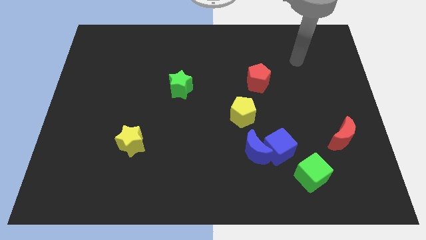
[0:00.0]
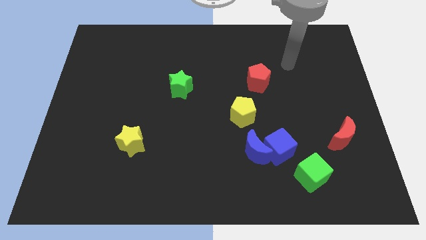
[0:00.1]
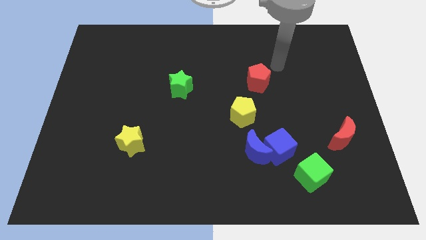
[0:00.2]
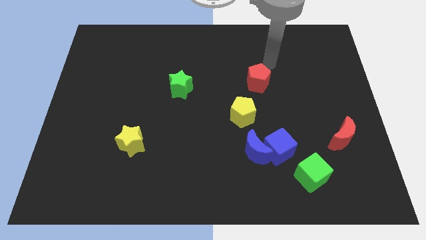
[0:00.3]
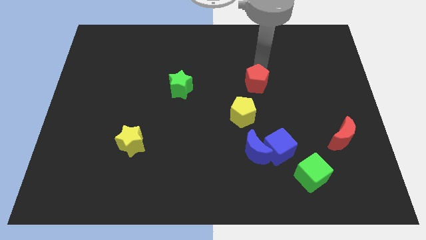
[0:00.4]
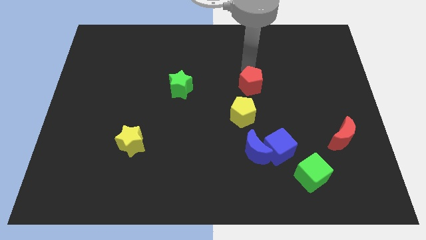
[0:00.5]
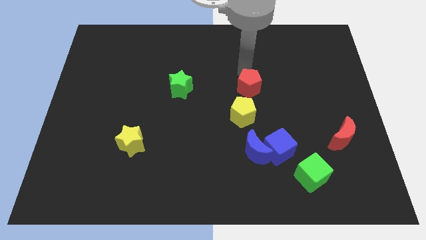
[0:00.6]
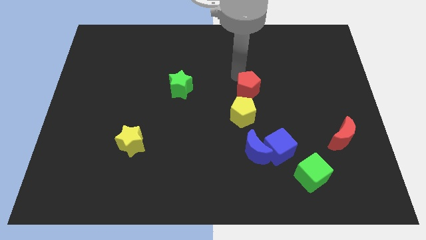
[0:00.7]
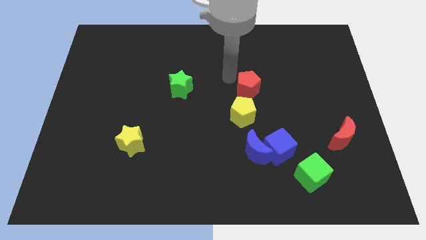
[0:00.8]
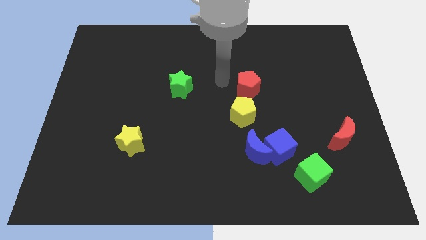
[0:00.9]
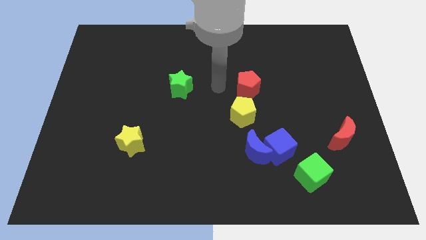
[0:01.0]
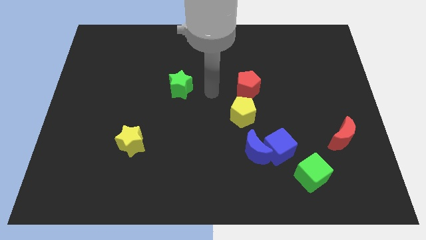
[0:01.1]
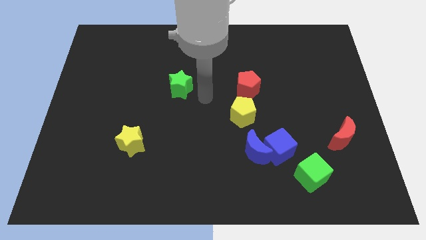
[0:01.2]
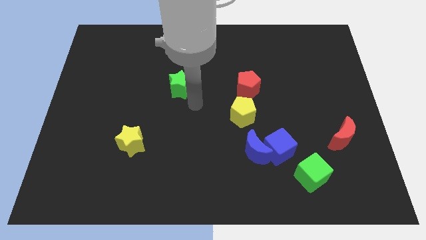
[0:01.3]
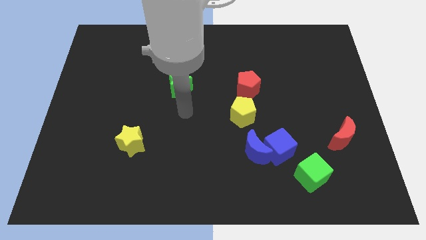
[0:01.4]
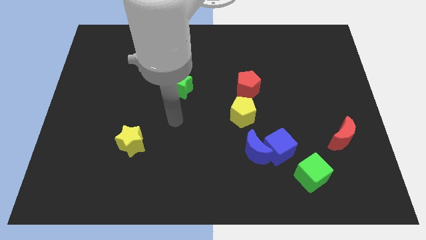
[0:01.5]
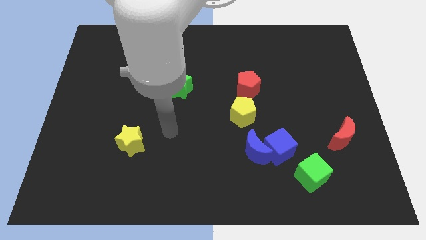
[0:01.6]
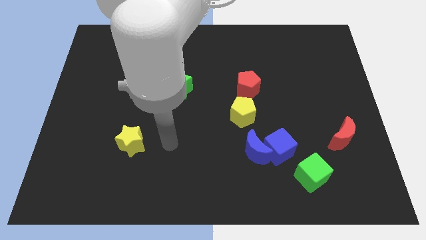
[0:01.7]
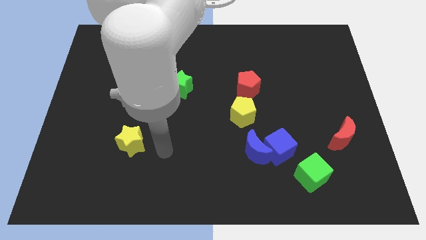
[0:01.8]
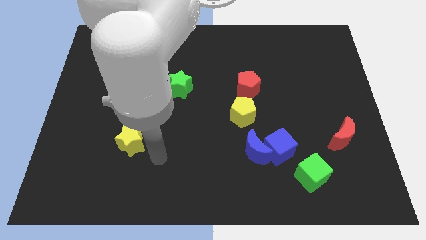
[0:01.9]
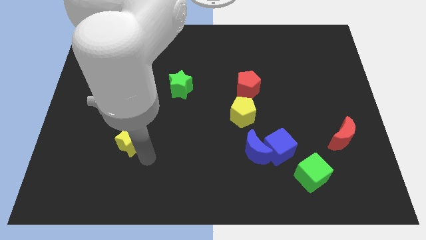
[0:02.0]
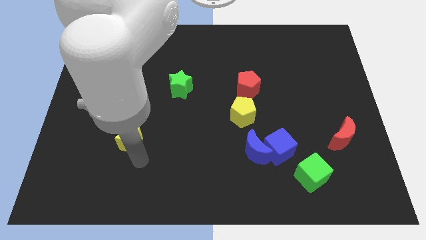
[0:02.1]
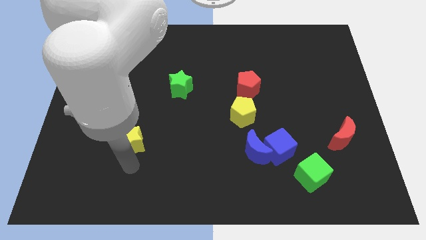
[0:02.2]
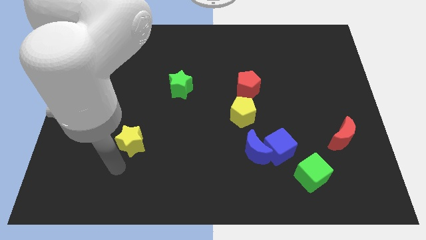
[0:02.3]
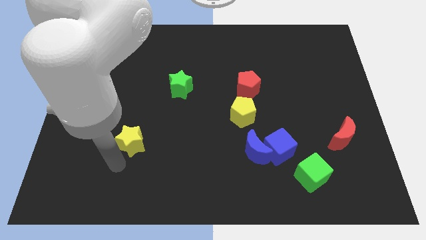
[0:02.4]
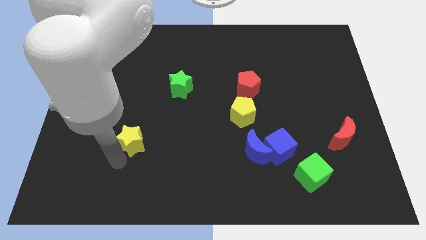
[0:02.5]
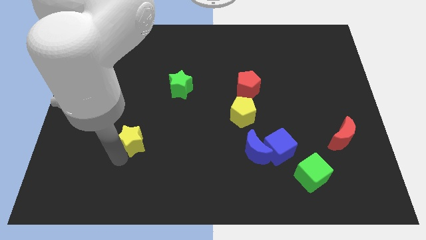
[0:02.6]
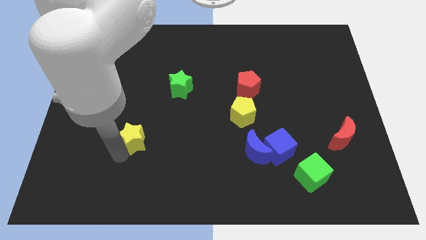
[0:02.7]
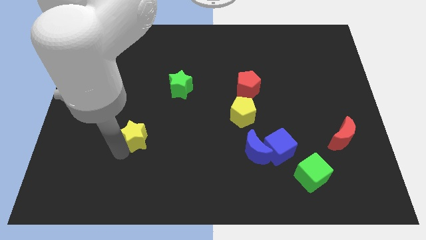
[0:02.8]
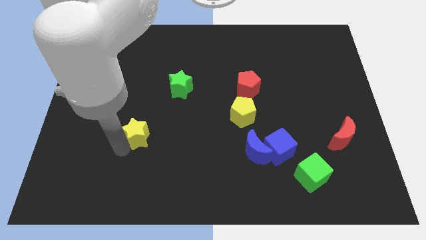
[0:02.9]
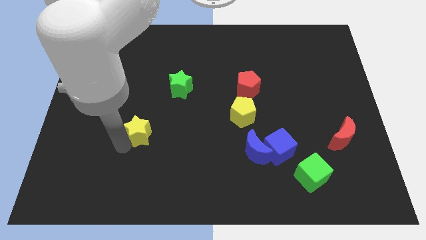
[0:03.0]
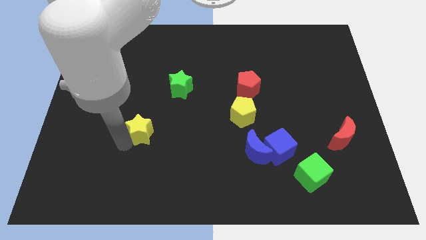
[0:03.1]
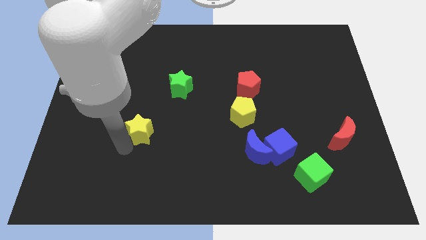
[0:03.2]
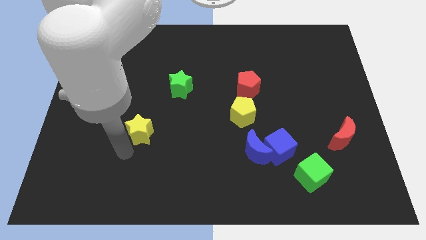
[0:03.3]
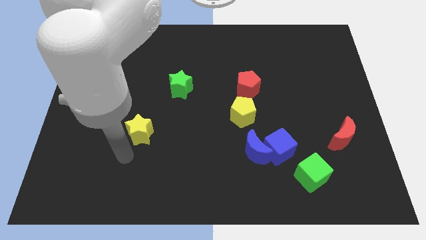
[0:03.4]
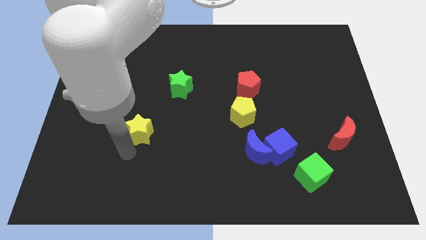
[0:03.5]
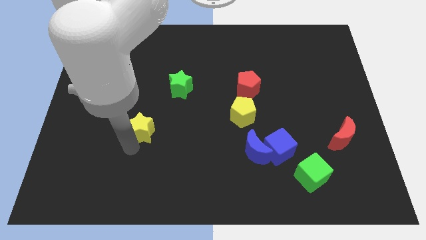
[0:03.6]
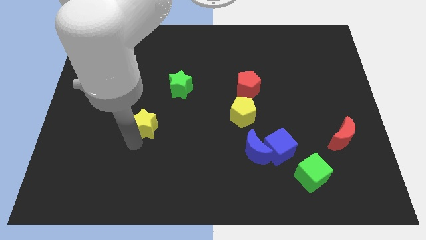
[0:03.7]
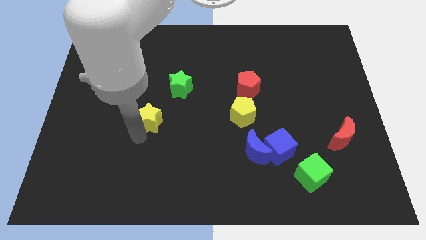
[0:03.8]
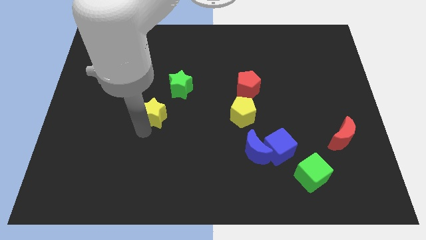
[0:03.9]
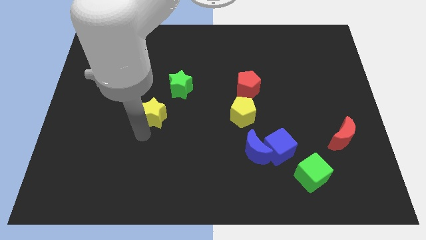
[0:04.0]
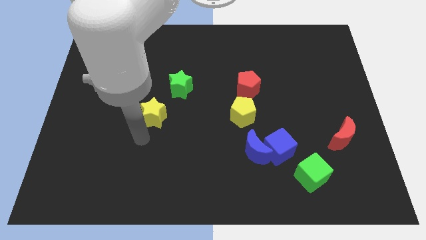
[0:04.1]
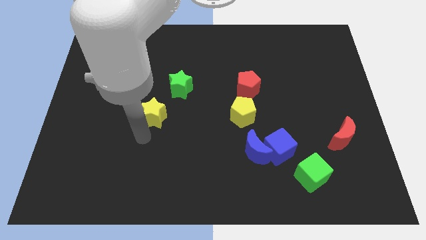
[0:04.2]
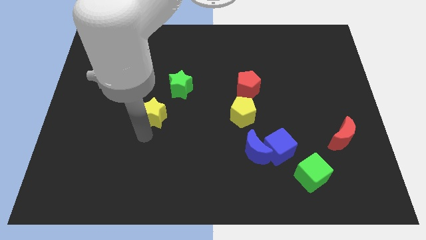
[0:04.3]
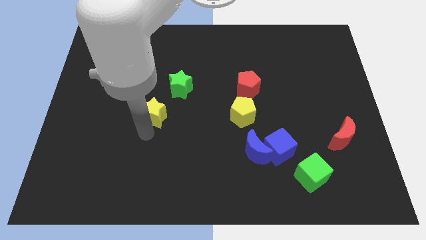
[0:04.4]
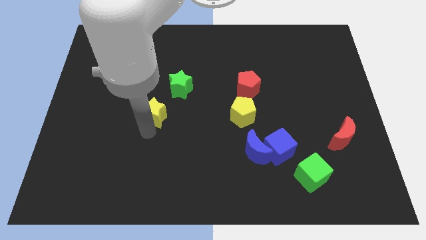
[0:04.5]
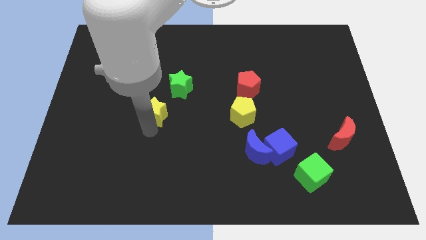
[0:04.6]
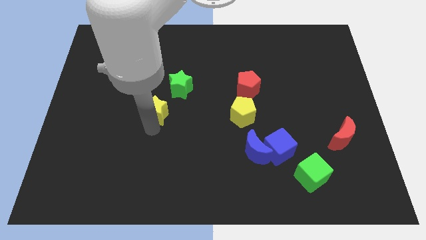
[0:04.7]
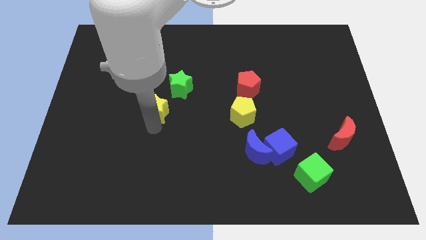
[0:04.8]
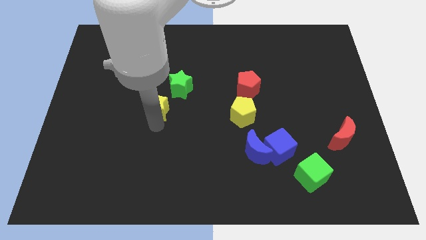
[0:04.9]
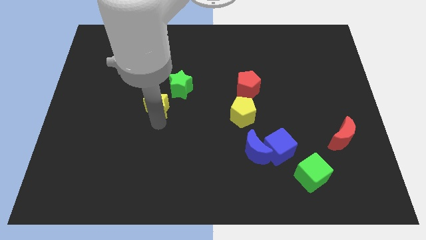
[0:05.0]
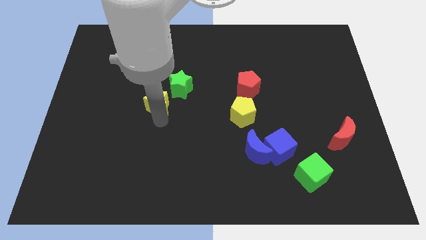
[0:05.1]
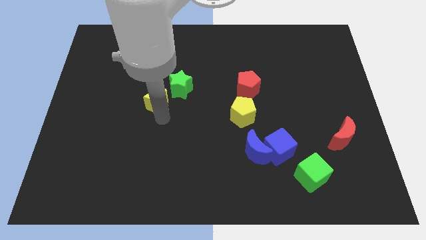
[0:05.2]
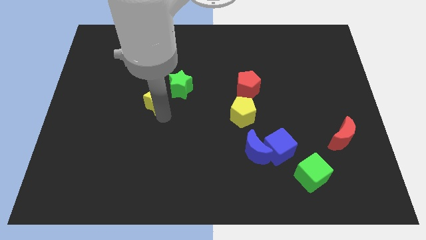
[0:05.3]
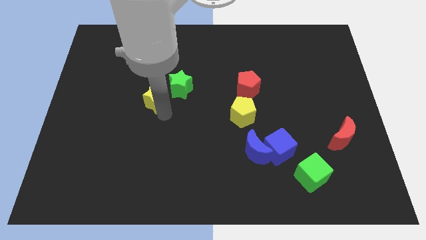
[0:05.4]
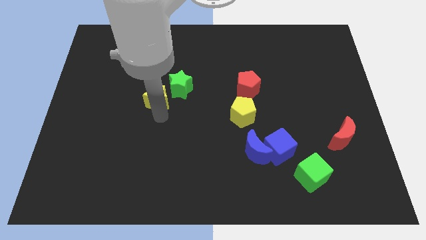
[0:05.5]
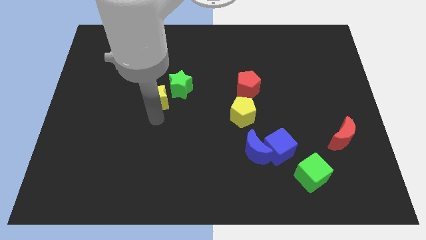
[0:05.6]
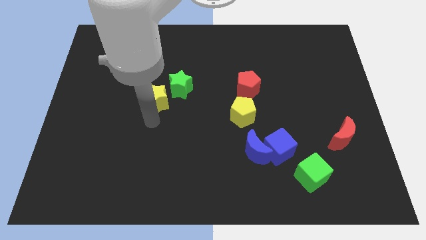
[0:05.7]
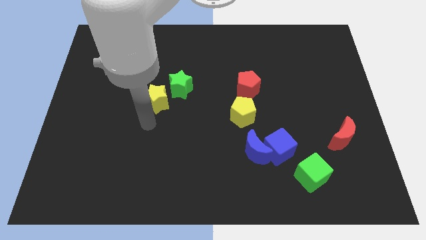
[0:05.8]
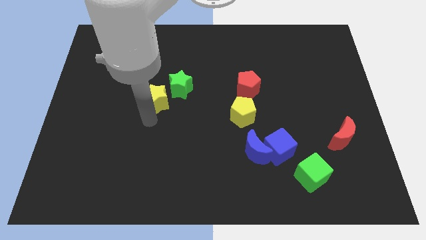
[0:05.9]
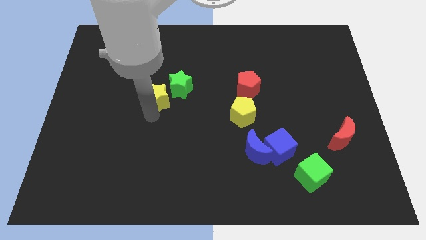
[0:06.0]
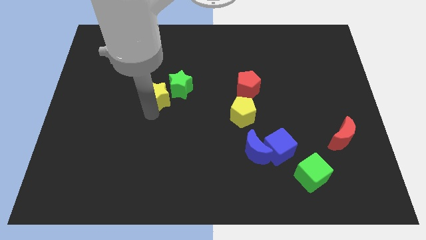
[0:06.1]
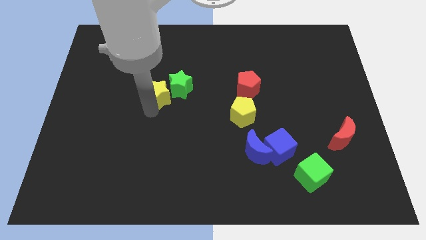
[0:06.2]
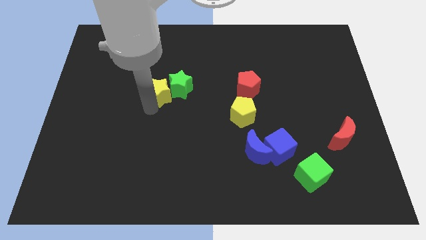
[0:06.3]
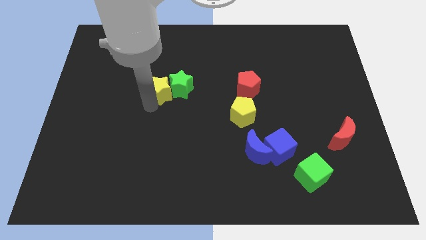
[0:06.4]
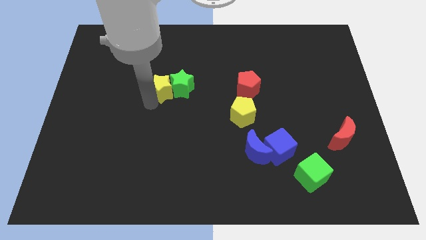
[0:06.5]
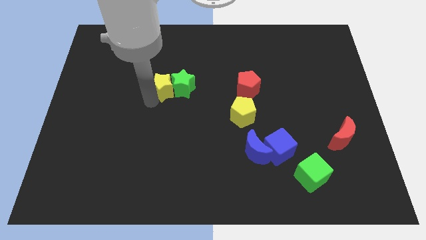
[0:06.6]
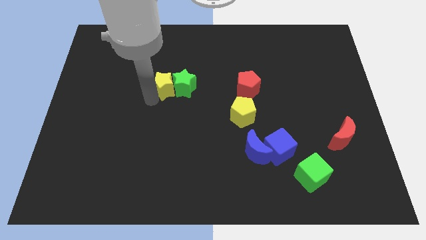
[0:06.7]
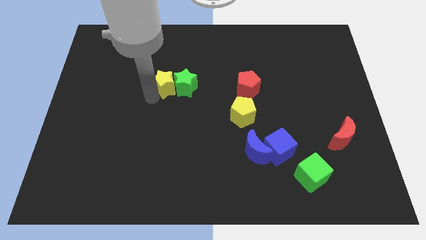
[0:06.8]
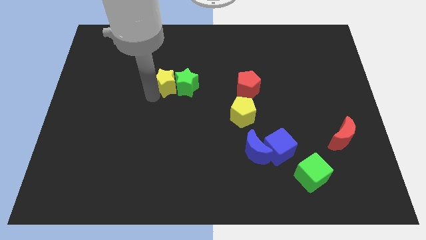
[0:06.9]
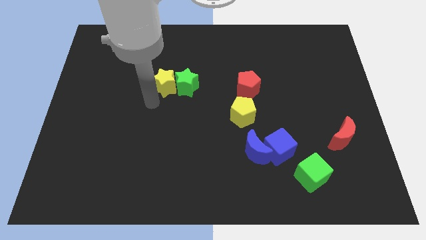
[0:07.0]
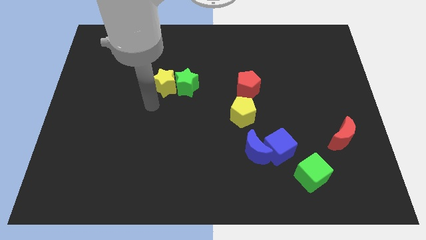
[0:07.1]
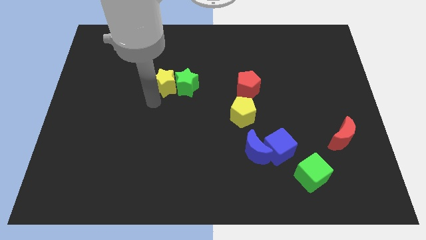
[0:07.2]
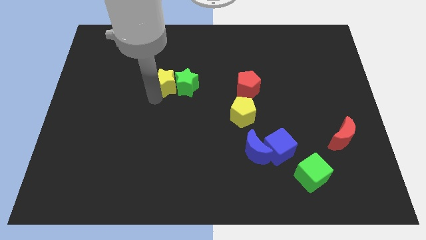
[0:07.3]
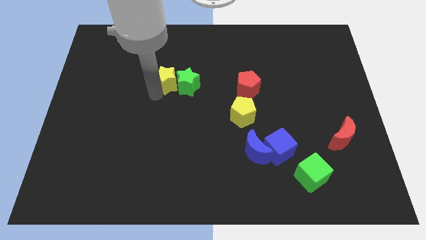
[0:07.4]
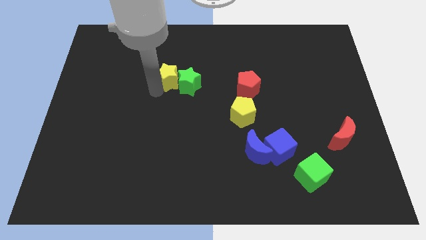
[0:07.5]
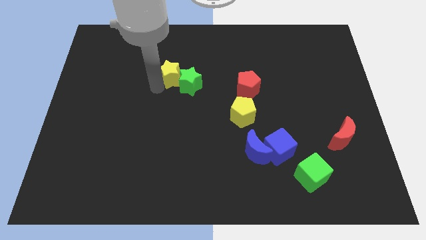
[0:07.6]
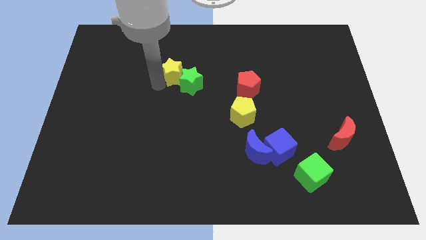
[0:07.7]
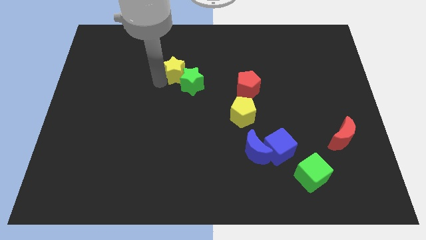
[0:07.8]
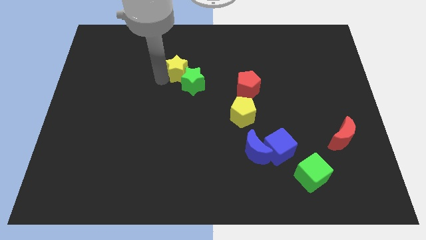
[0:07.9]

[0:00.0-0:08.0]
slide the yellow star above the green star
